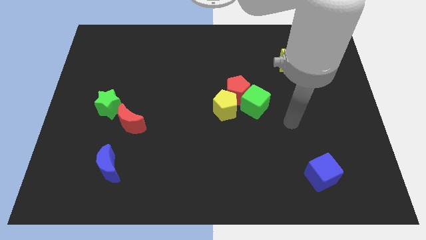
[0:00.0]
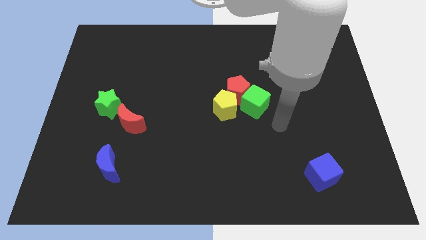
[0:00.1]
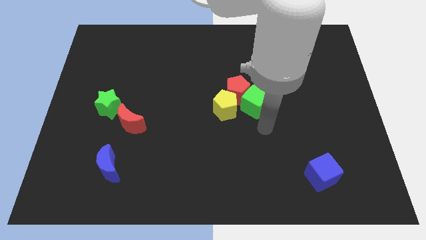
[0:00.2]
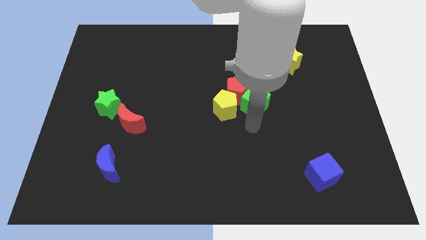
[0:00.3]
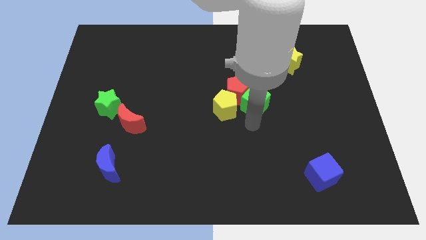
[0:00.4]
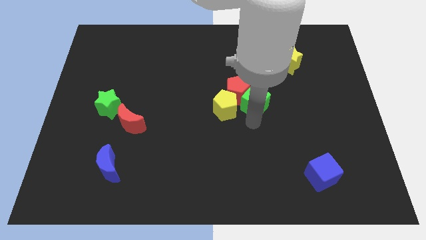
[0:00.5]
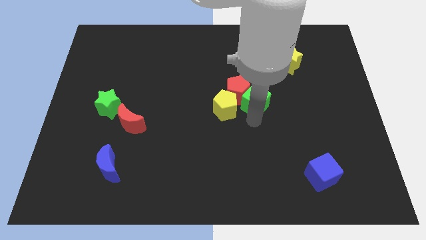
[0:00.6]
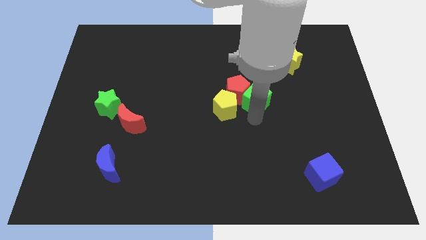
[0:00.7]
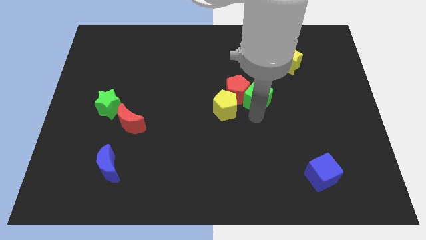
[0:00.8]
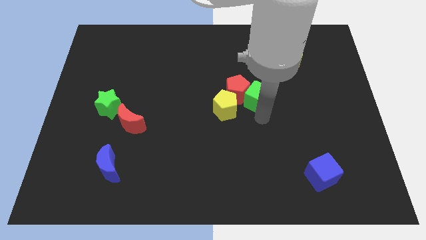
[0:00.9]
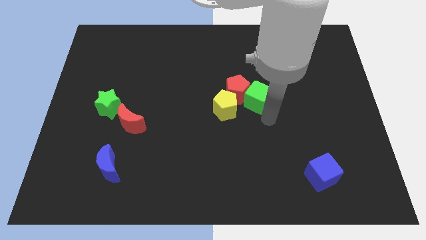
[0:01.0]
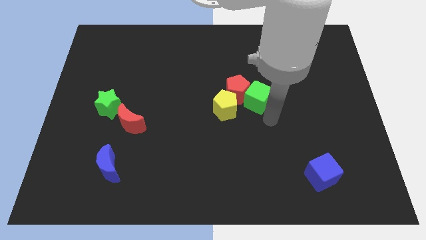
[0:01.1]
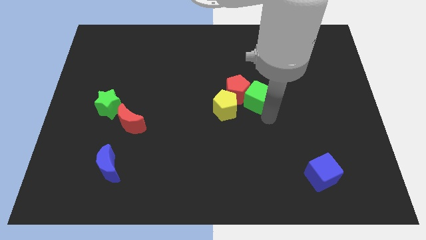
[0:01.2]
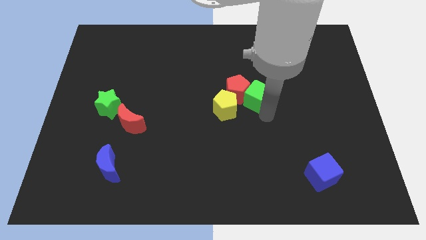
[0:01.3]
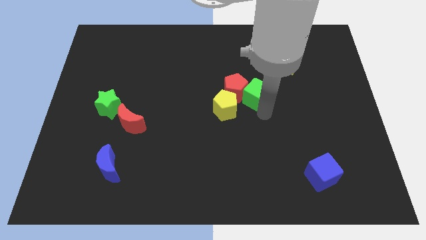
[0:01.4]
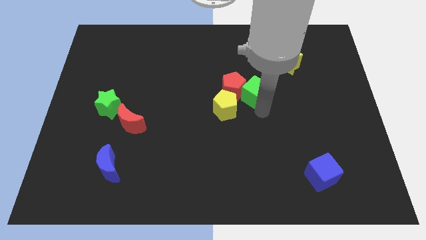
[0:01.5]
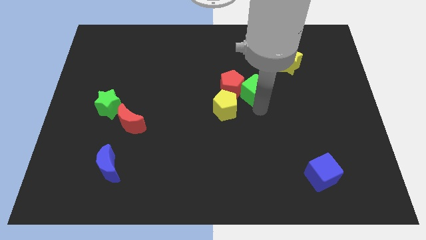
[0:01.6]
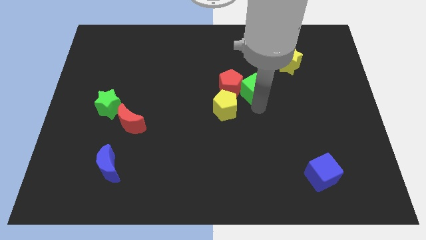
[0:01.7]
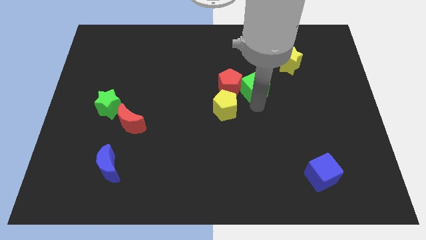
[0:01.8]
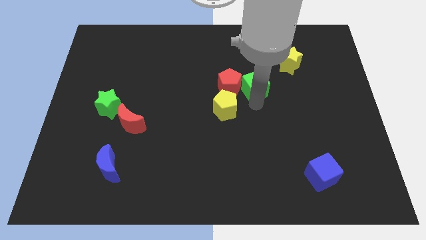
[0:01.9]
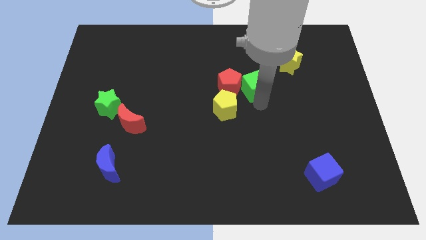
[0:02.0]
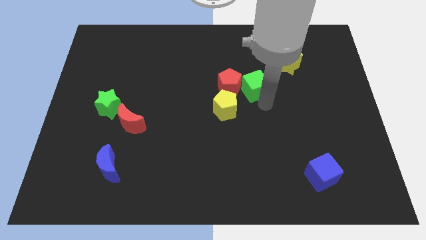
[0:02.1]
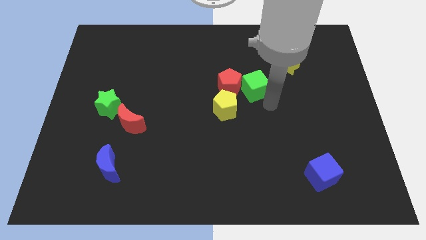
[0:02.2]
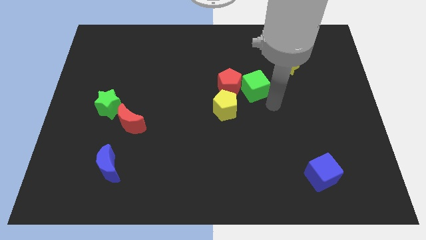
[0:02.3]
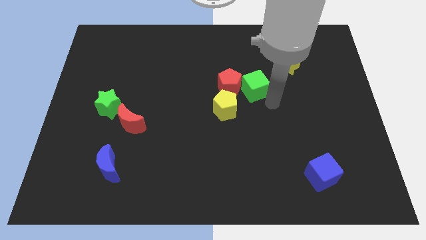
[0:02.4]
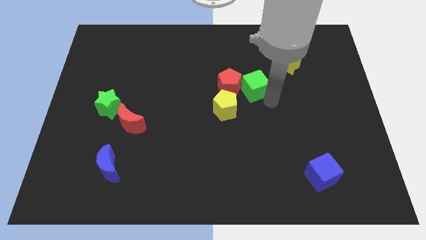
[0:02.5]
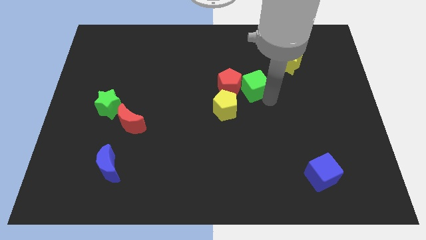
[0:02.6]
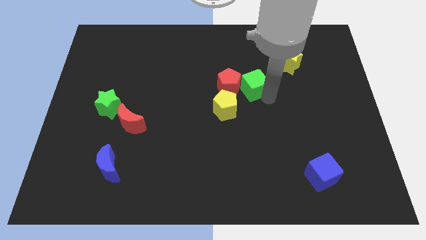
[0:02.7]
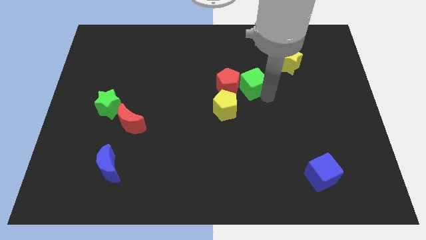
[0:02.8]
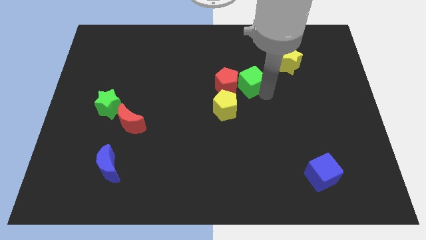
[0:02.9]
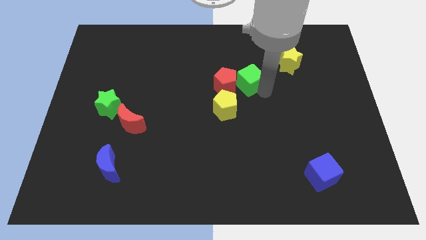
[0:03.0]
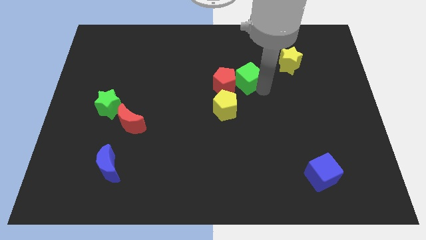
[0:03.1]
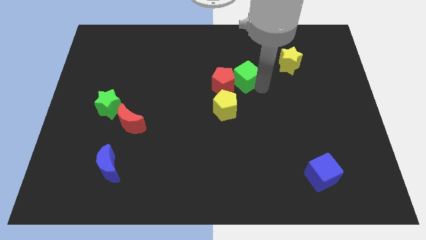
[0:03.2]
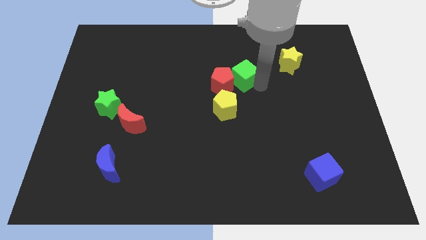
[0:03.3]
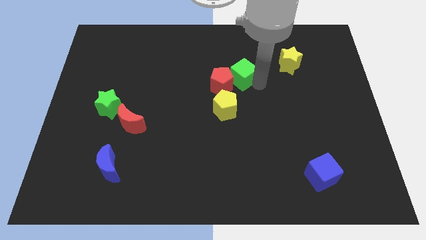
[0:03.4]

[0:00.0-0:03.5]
slide the green cube up and to the left somewhat

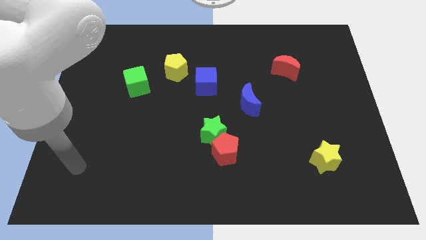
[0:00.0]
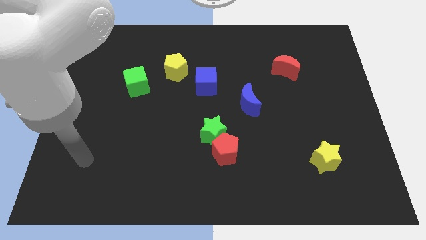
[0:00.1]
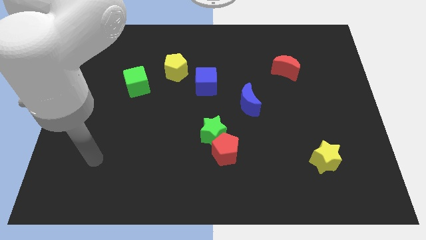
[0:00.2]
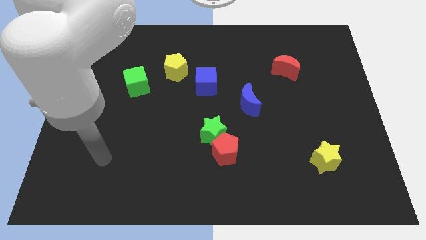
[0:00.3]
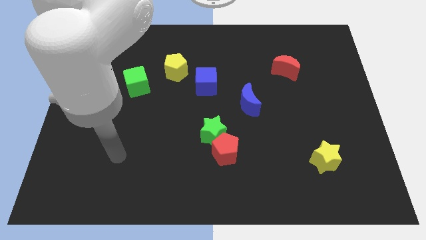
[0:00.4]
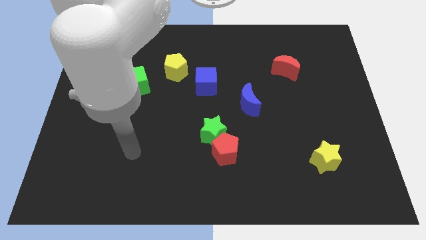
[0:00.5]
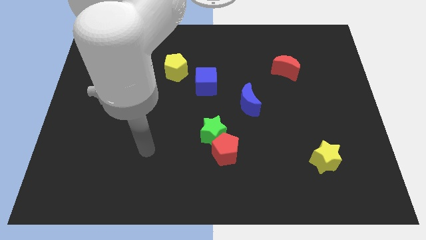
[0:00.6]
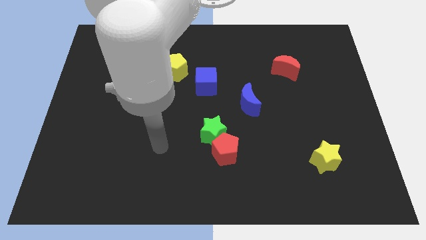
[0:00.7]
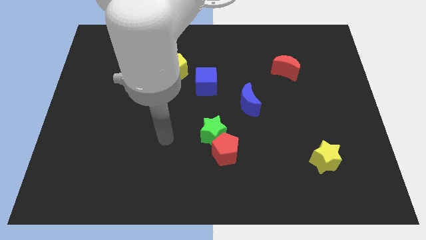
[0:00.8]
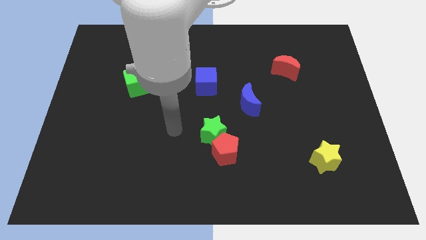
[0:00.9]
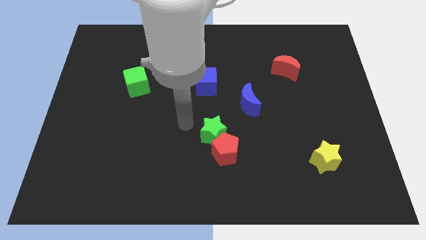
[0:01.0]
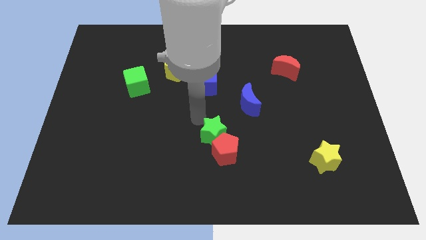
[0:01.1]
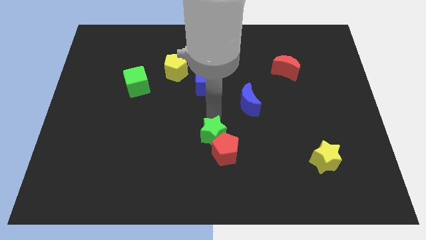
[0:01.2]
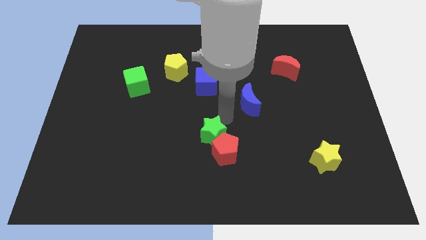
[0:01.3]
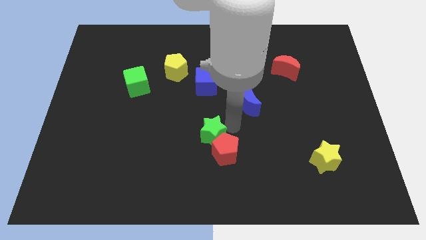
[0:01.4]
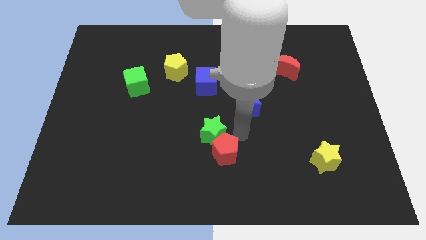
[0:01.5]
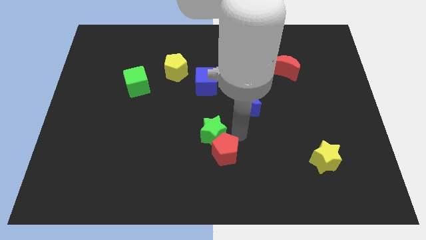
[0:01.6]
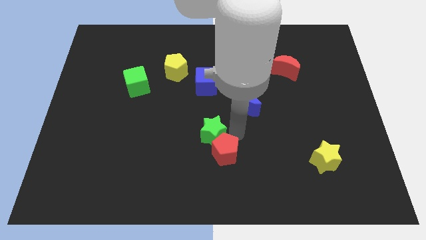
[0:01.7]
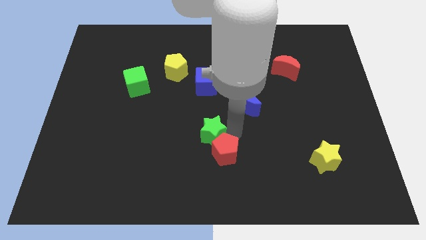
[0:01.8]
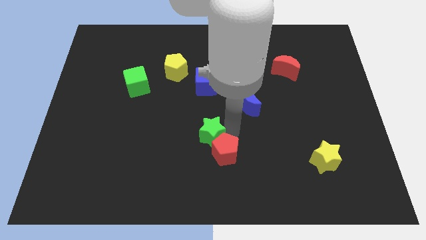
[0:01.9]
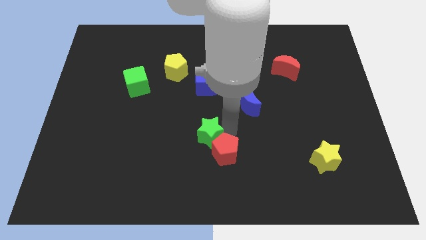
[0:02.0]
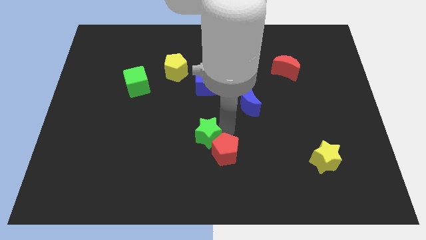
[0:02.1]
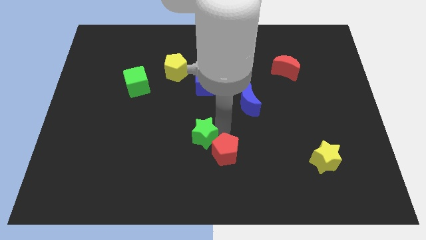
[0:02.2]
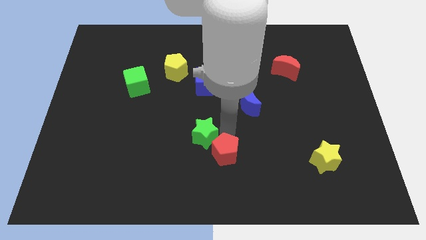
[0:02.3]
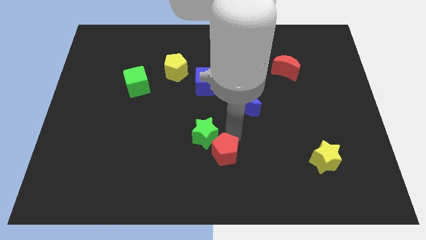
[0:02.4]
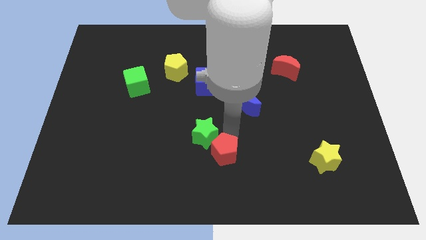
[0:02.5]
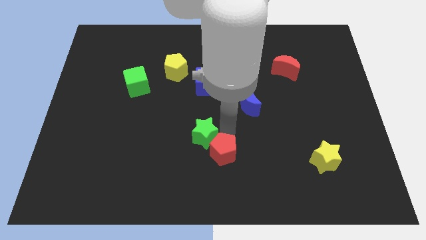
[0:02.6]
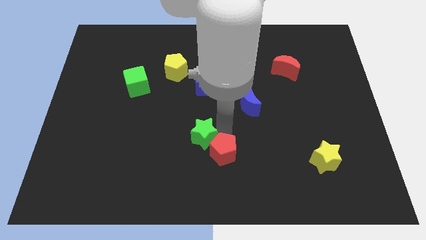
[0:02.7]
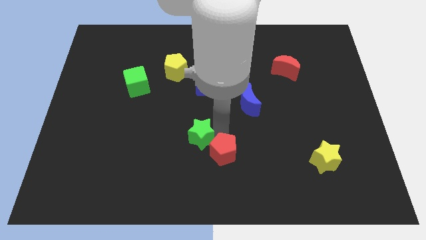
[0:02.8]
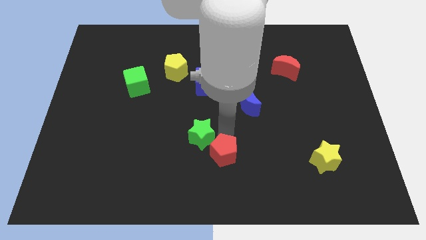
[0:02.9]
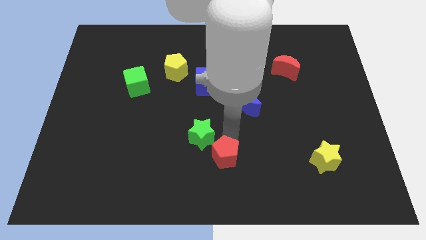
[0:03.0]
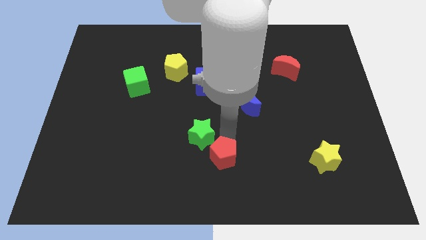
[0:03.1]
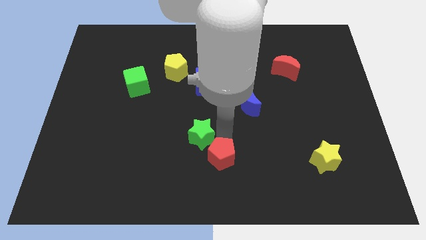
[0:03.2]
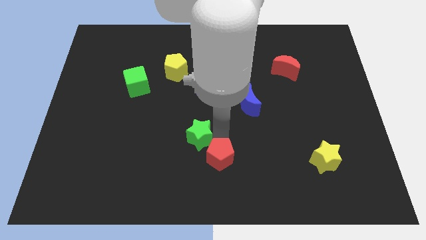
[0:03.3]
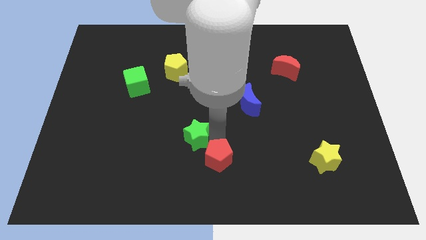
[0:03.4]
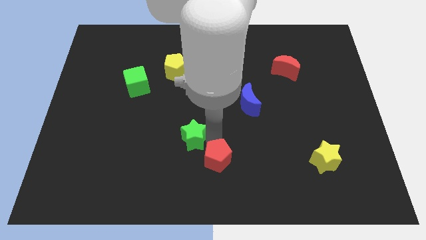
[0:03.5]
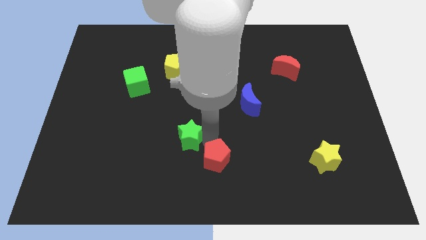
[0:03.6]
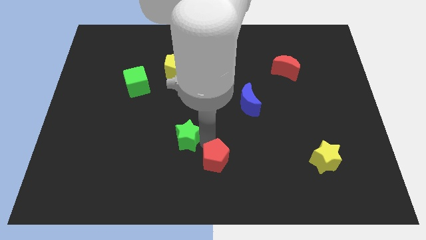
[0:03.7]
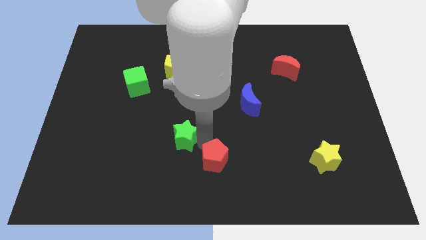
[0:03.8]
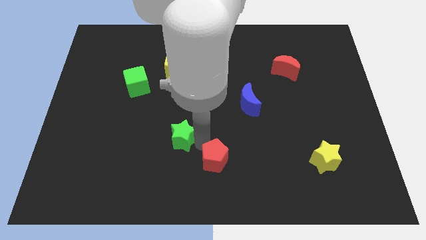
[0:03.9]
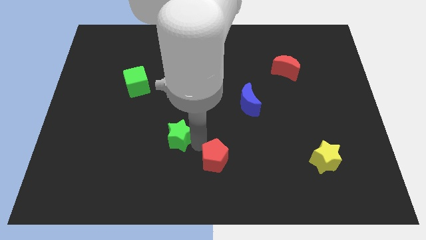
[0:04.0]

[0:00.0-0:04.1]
move the green star a little to the left

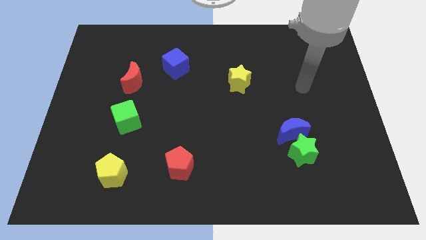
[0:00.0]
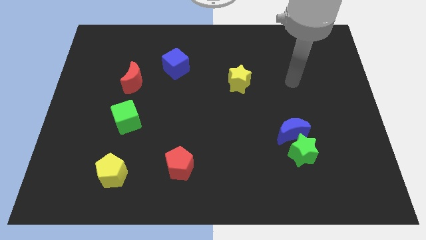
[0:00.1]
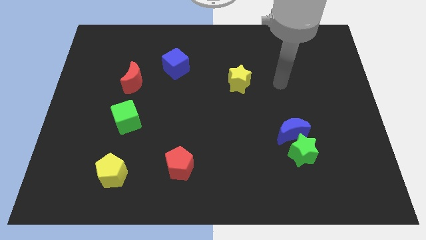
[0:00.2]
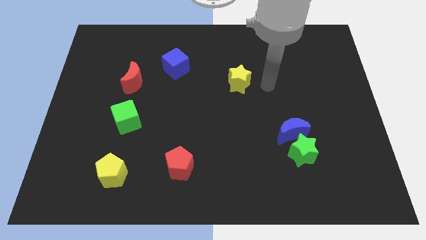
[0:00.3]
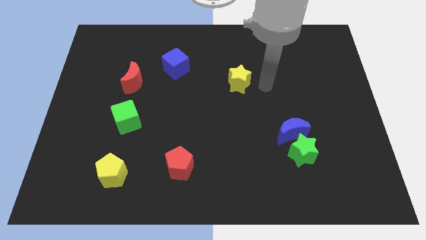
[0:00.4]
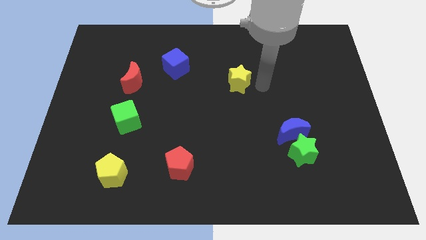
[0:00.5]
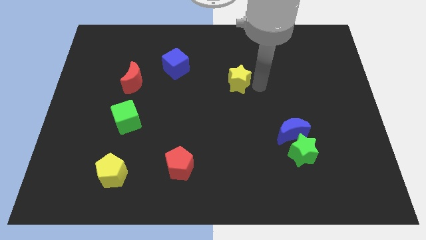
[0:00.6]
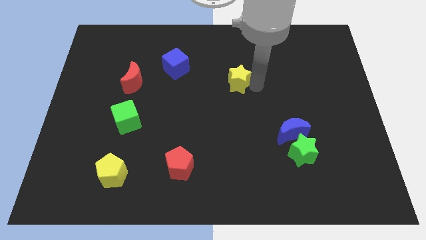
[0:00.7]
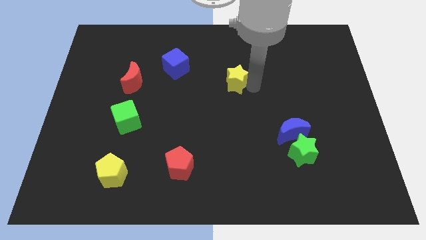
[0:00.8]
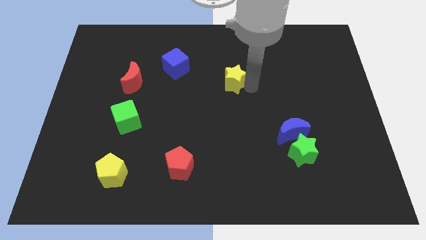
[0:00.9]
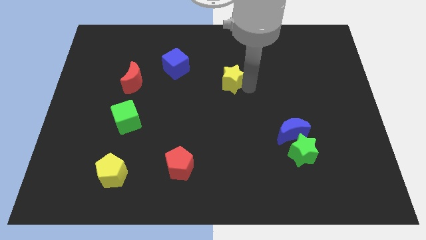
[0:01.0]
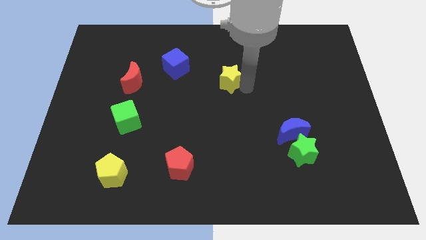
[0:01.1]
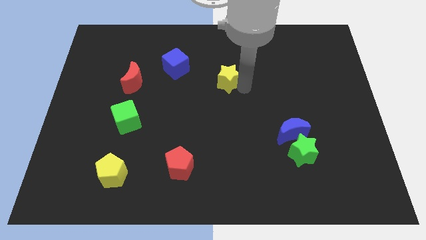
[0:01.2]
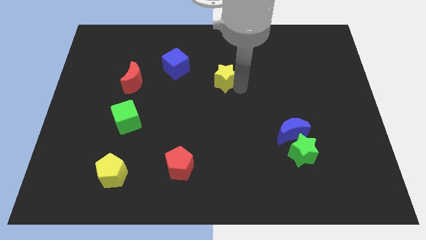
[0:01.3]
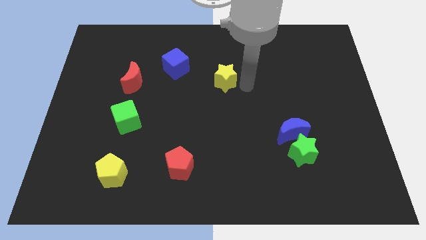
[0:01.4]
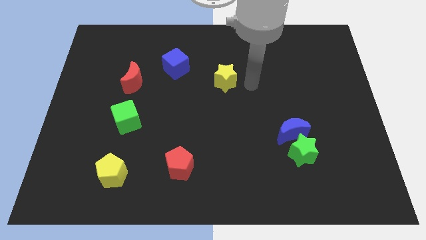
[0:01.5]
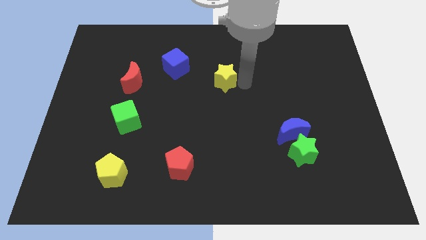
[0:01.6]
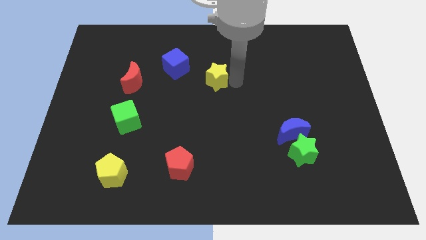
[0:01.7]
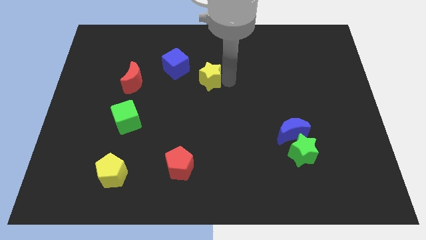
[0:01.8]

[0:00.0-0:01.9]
slightly push the yellow star to the left
